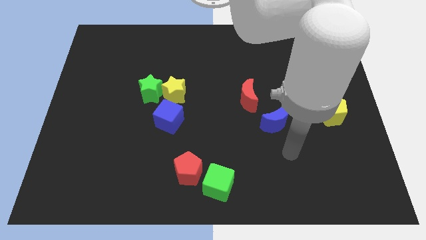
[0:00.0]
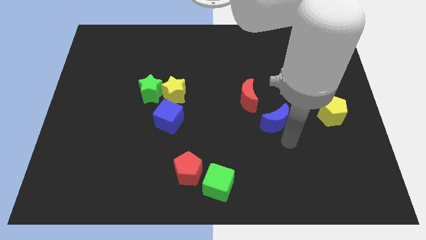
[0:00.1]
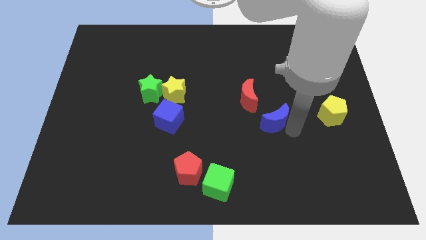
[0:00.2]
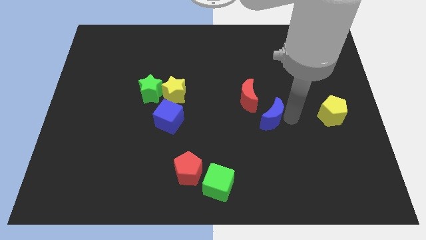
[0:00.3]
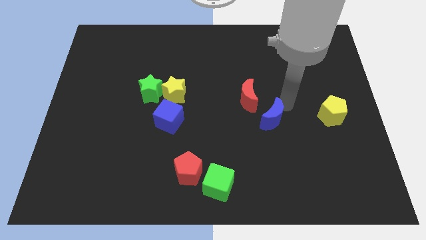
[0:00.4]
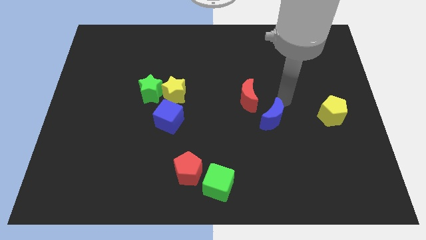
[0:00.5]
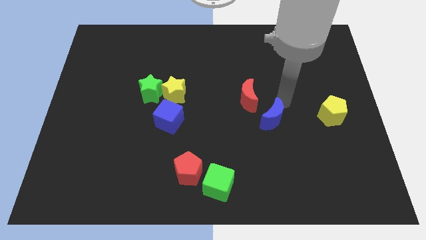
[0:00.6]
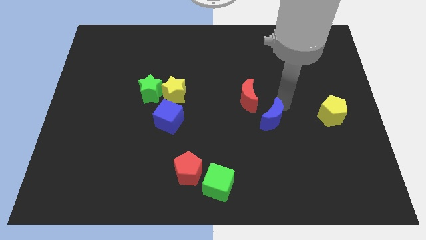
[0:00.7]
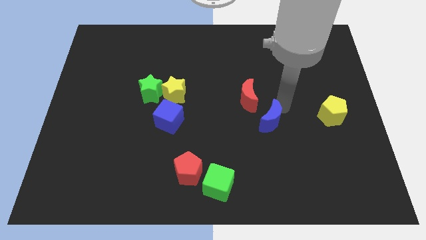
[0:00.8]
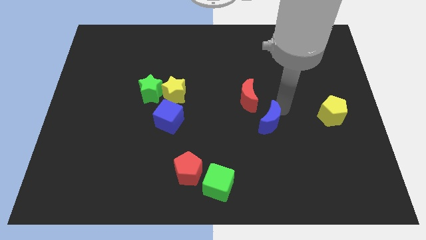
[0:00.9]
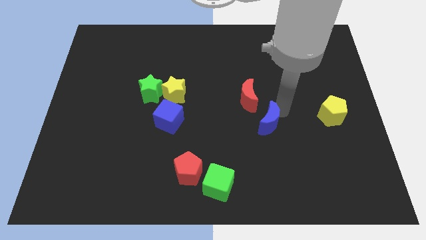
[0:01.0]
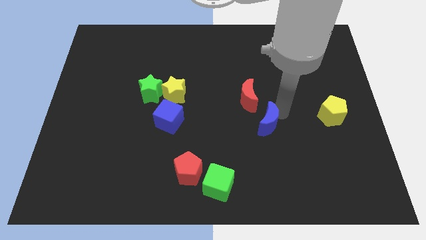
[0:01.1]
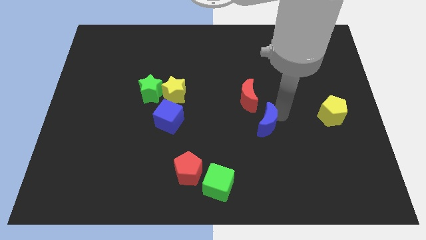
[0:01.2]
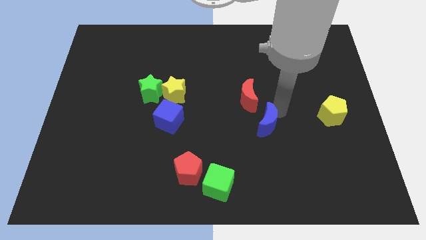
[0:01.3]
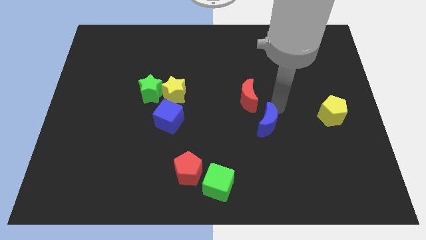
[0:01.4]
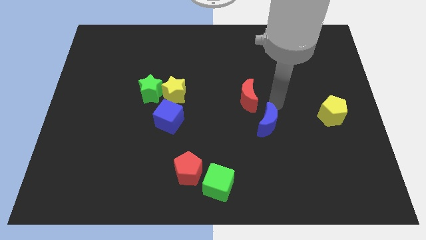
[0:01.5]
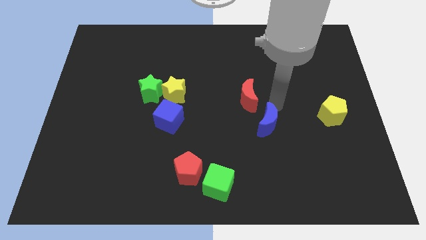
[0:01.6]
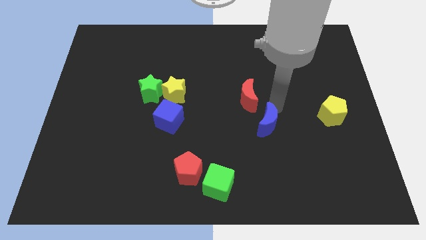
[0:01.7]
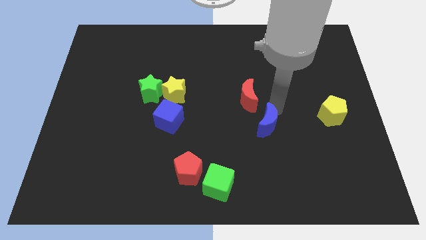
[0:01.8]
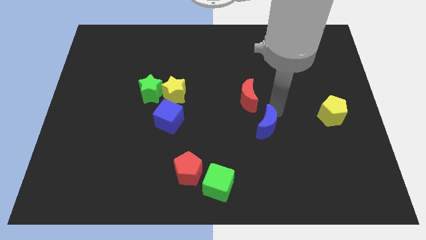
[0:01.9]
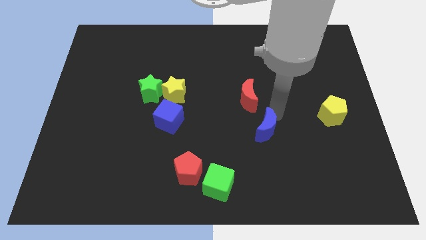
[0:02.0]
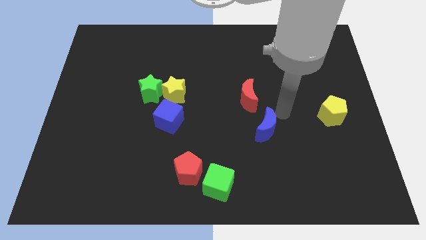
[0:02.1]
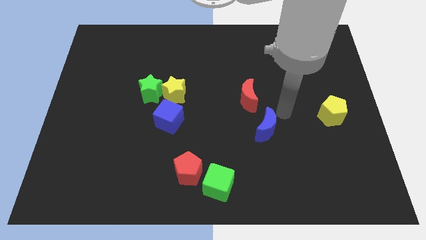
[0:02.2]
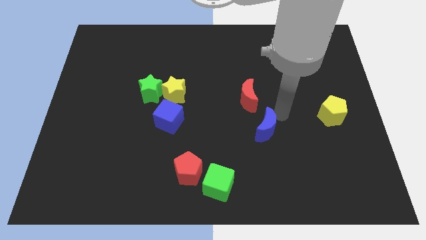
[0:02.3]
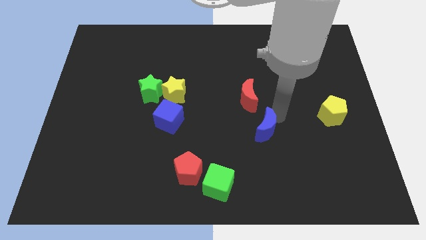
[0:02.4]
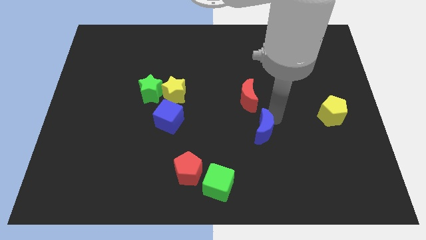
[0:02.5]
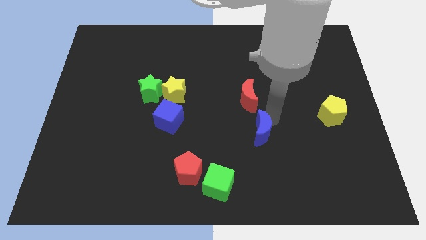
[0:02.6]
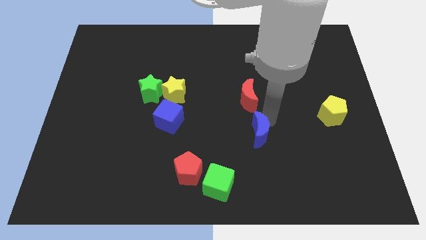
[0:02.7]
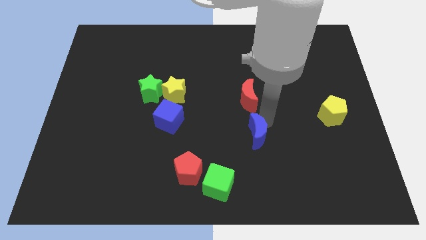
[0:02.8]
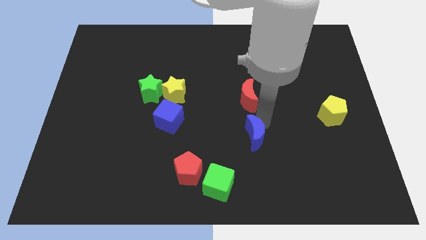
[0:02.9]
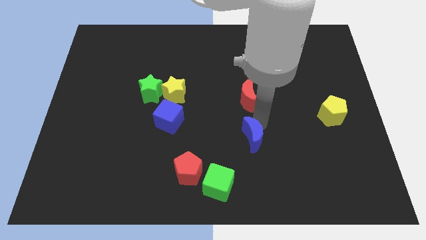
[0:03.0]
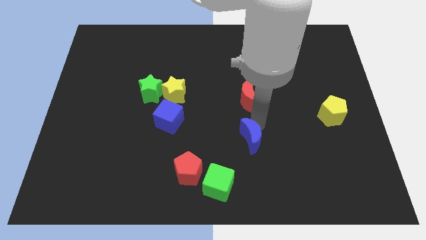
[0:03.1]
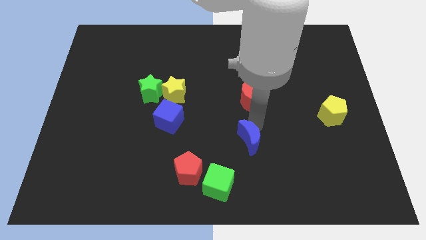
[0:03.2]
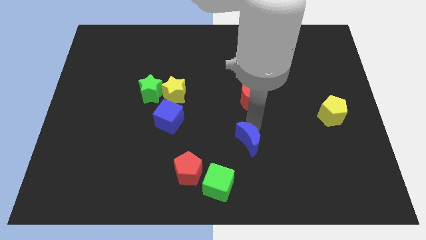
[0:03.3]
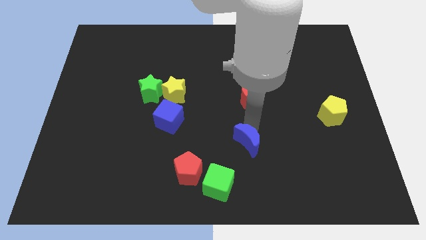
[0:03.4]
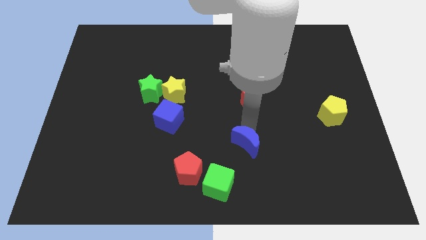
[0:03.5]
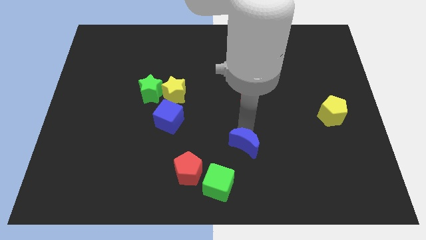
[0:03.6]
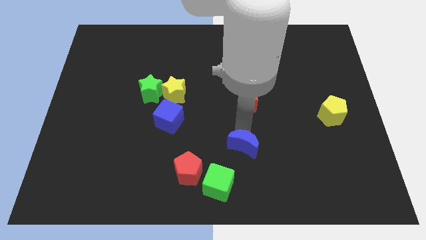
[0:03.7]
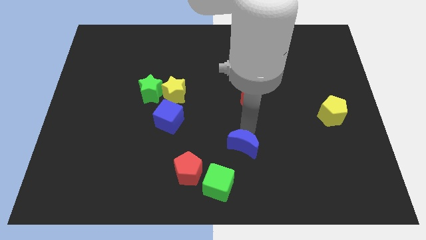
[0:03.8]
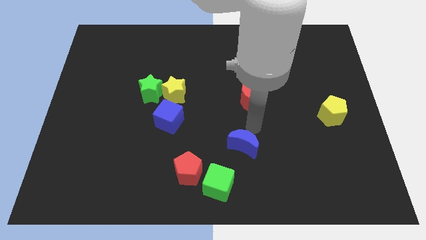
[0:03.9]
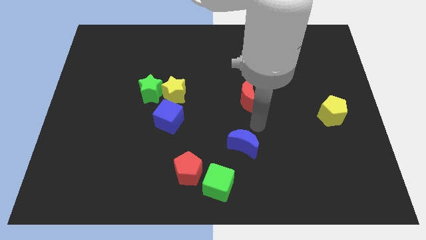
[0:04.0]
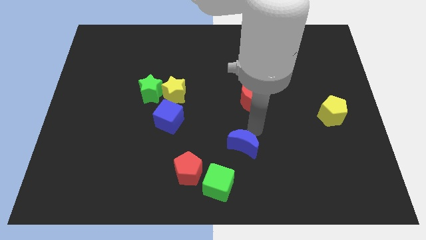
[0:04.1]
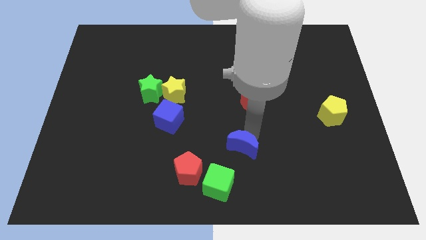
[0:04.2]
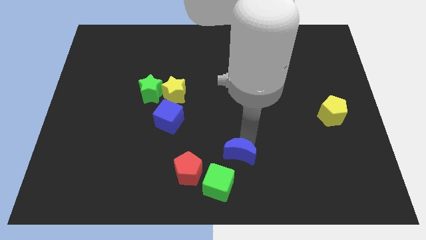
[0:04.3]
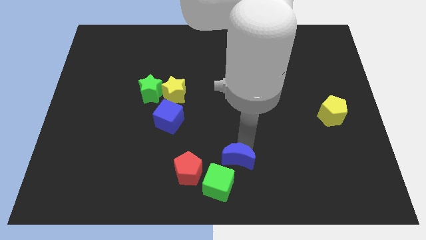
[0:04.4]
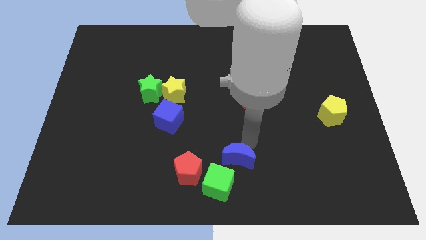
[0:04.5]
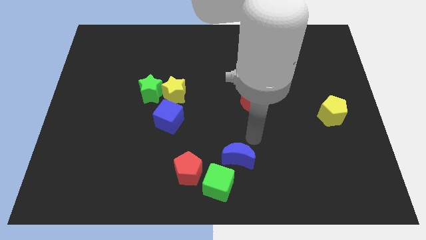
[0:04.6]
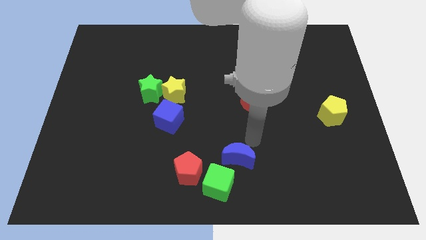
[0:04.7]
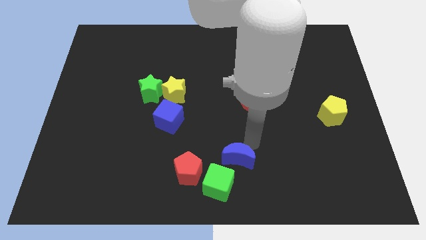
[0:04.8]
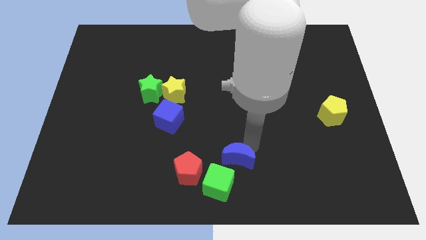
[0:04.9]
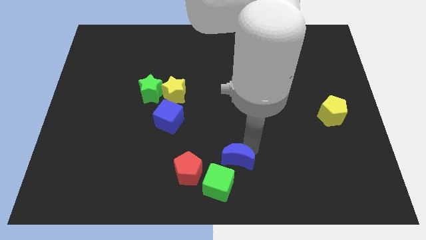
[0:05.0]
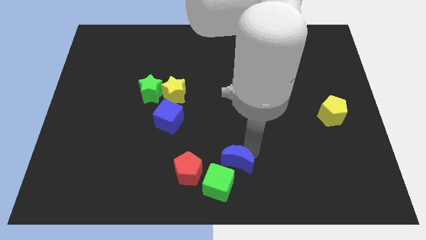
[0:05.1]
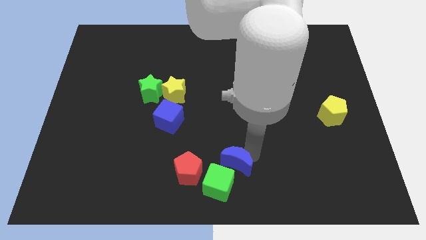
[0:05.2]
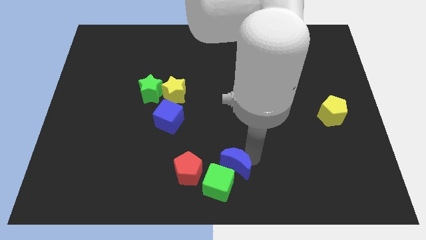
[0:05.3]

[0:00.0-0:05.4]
move the blue moon close to the green cube

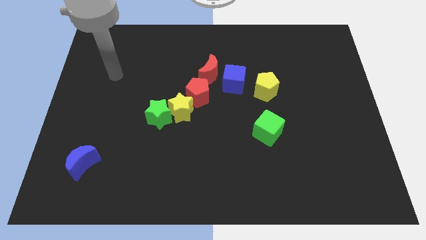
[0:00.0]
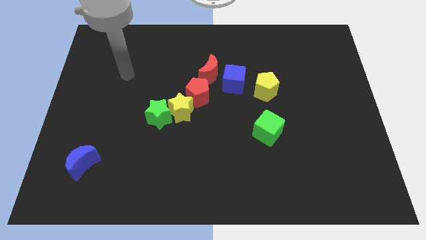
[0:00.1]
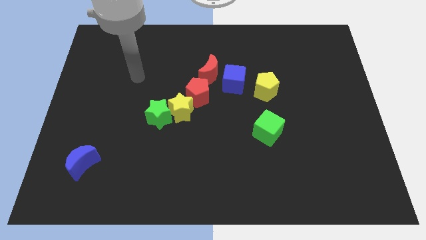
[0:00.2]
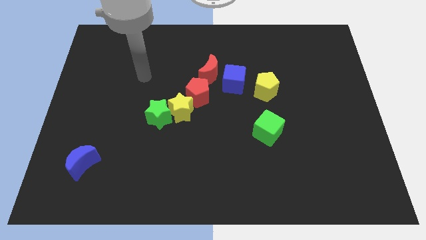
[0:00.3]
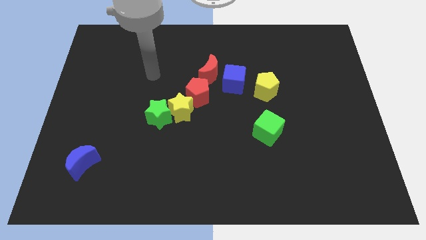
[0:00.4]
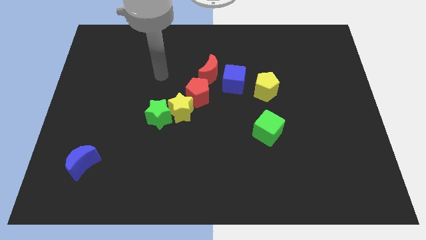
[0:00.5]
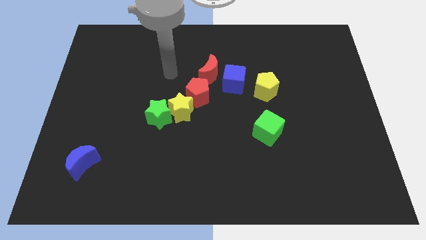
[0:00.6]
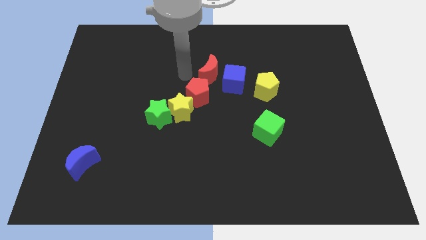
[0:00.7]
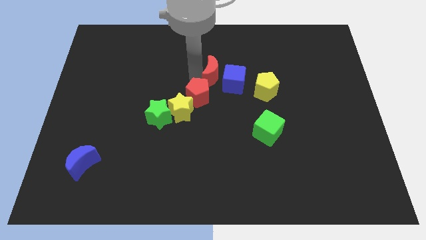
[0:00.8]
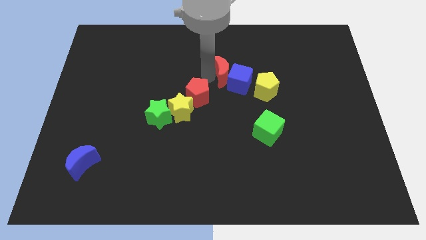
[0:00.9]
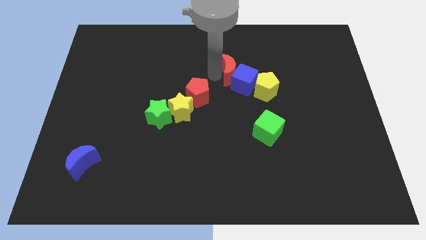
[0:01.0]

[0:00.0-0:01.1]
slide the blue cube to the yellow pentagon
